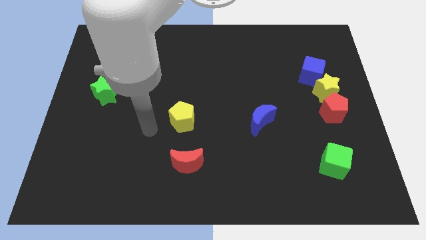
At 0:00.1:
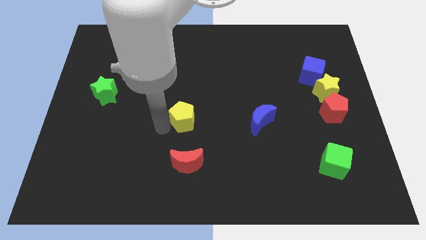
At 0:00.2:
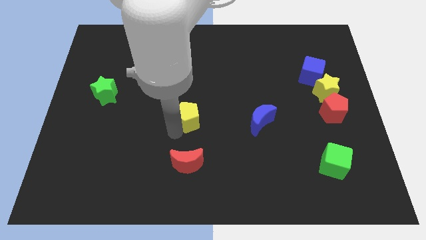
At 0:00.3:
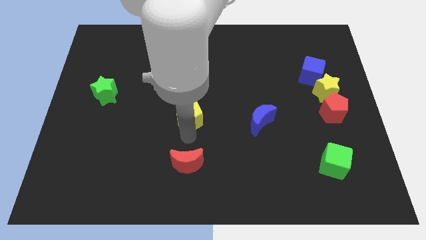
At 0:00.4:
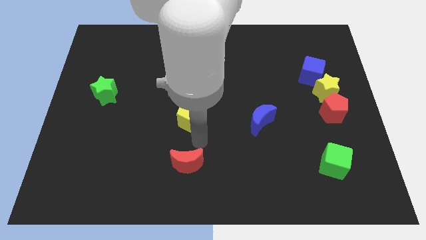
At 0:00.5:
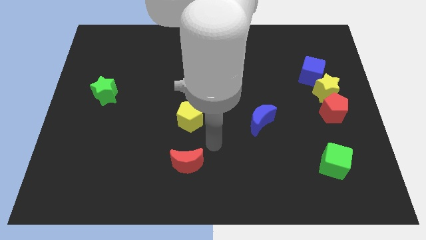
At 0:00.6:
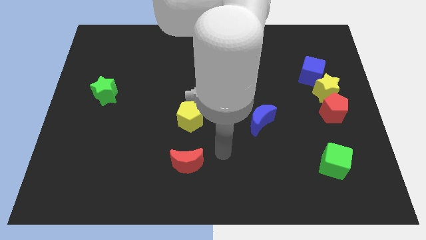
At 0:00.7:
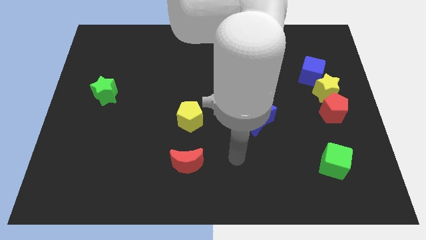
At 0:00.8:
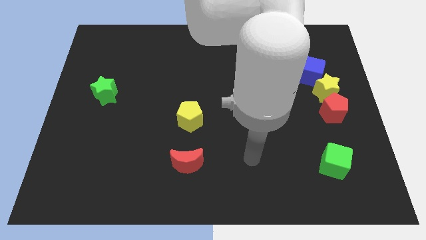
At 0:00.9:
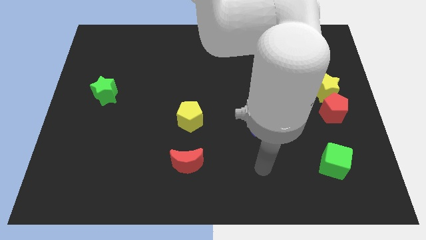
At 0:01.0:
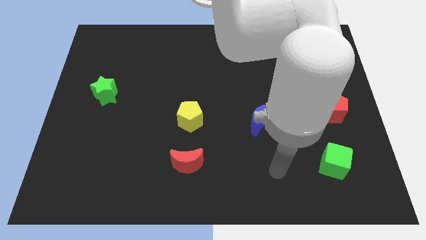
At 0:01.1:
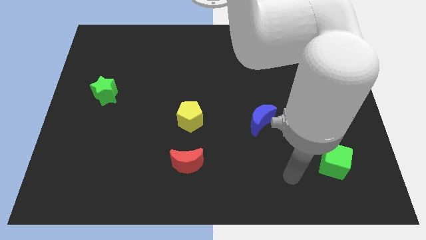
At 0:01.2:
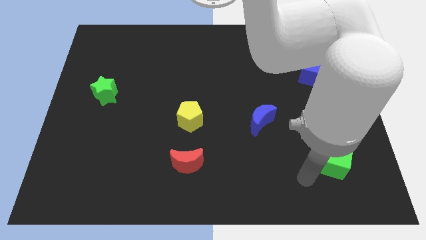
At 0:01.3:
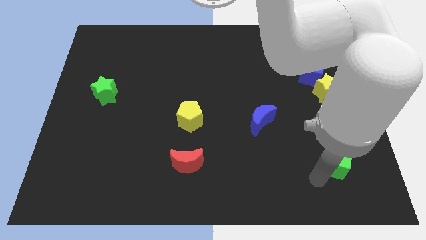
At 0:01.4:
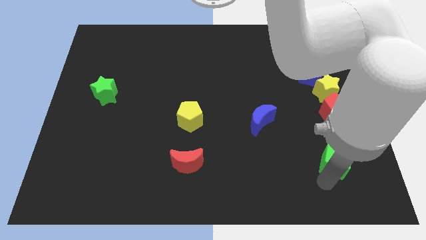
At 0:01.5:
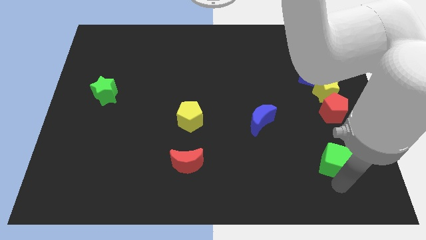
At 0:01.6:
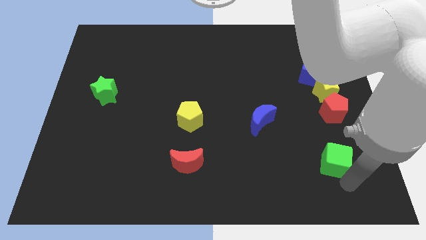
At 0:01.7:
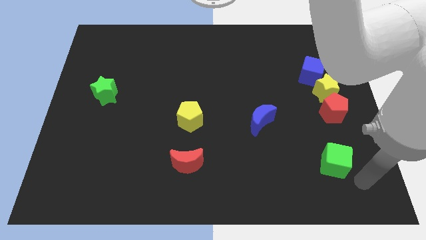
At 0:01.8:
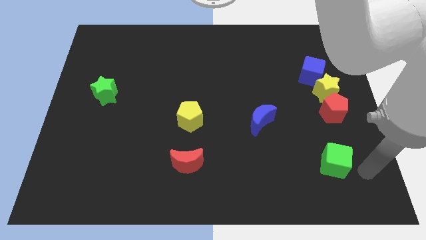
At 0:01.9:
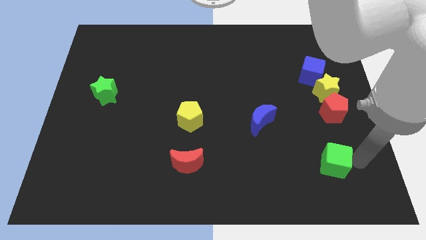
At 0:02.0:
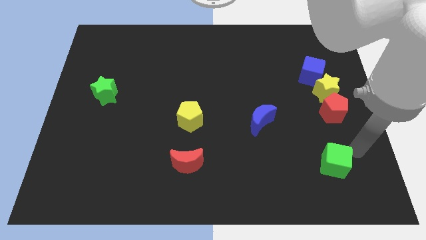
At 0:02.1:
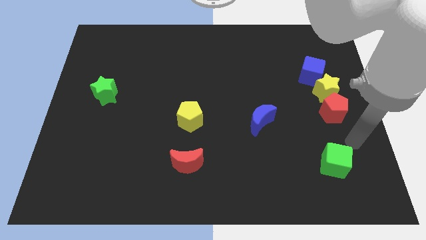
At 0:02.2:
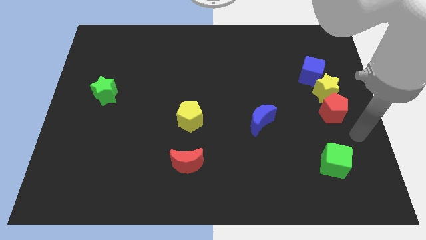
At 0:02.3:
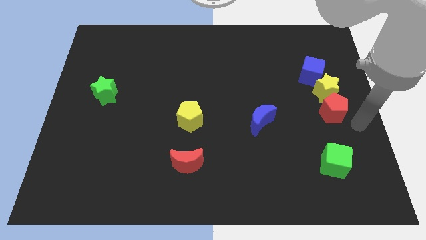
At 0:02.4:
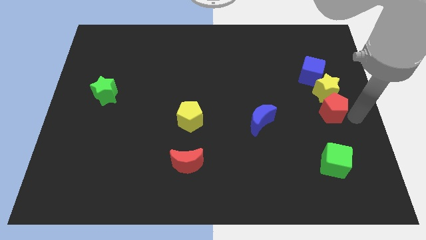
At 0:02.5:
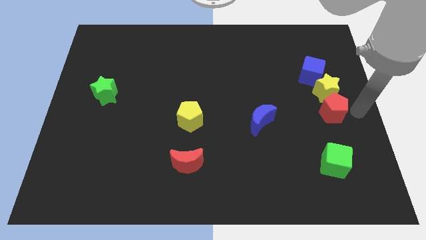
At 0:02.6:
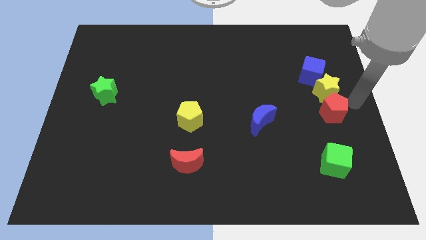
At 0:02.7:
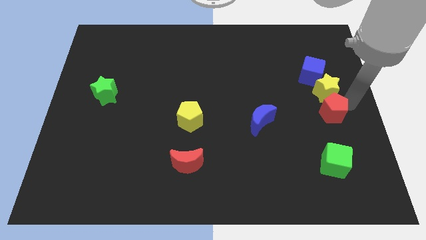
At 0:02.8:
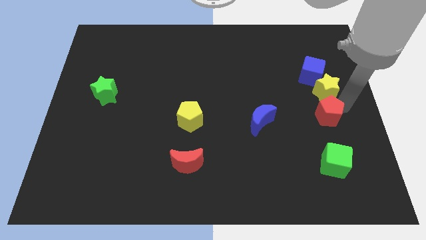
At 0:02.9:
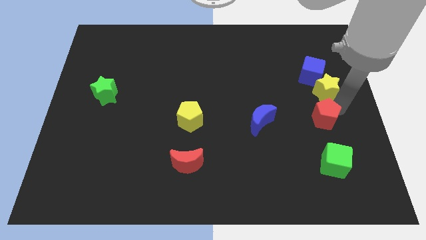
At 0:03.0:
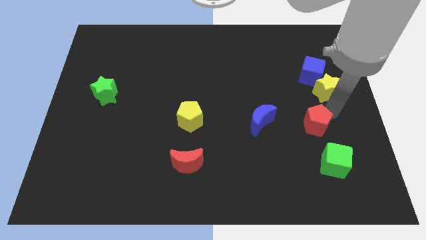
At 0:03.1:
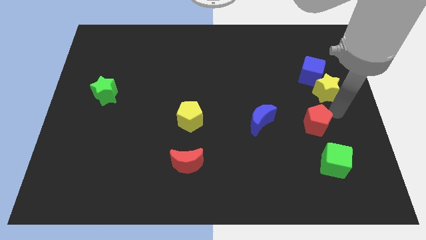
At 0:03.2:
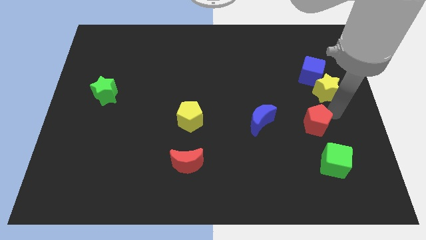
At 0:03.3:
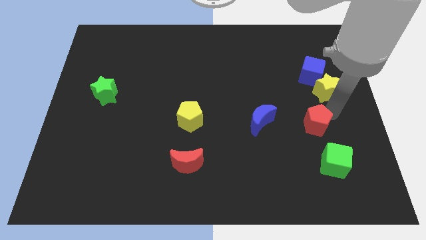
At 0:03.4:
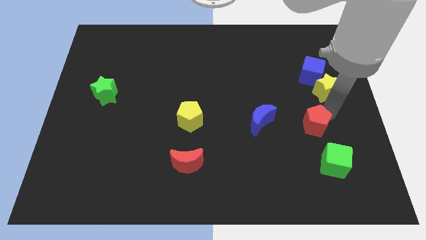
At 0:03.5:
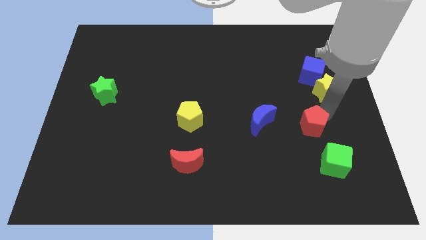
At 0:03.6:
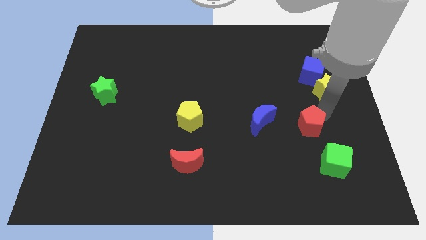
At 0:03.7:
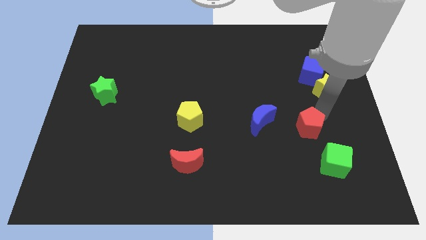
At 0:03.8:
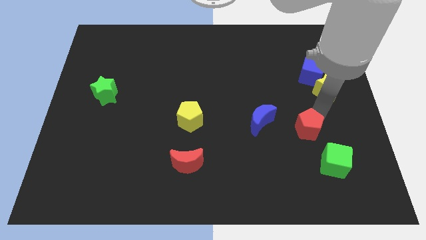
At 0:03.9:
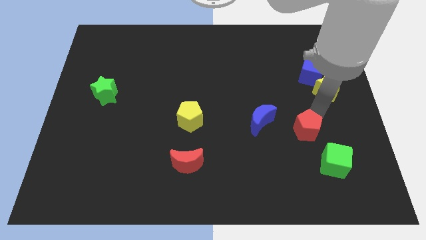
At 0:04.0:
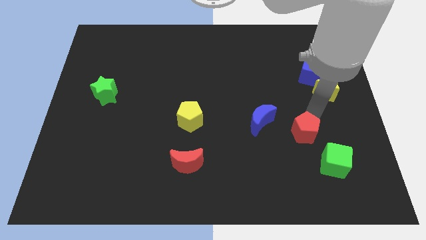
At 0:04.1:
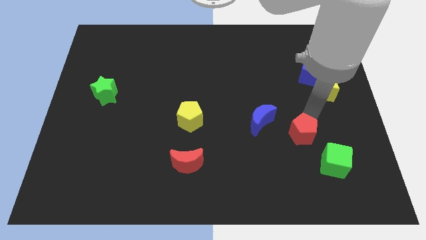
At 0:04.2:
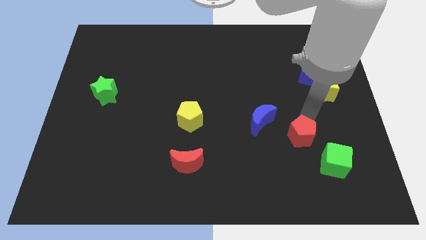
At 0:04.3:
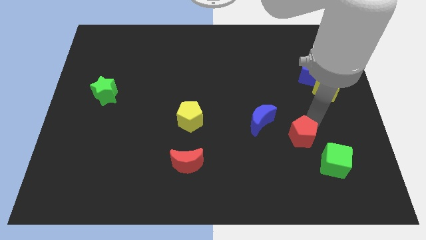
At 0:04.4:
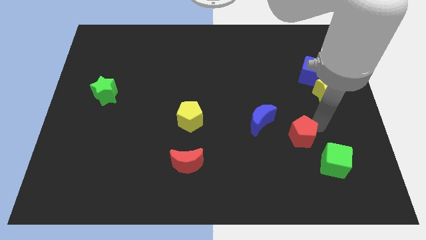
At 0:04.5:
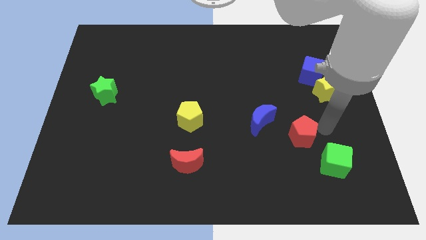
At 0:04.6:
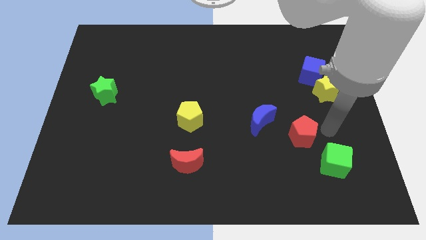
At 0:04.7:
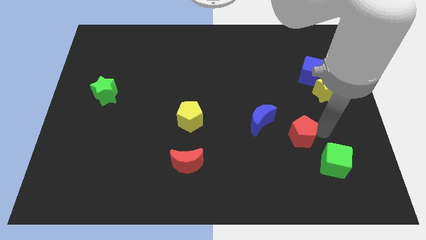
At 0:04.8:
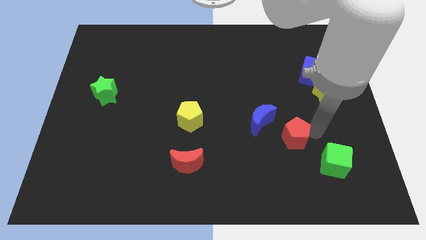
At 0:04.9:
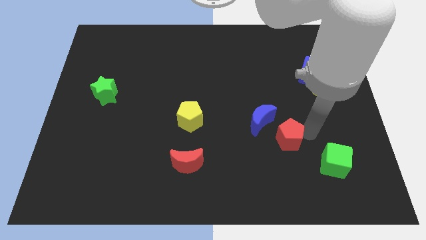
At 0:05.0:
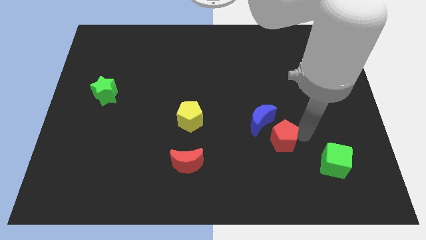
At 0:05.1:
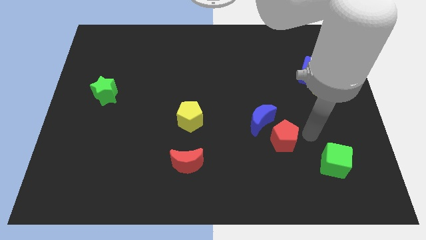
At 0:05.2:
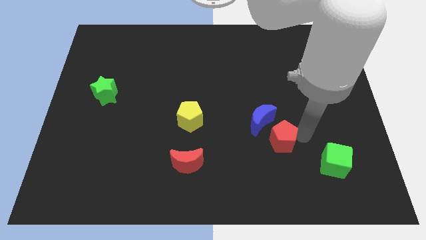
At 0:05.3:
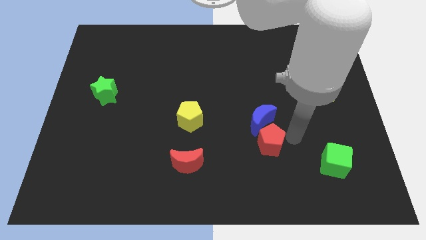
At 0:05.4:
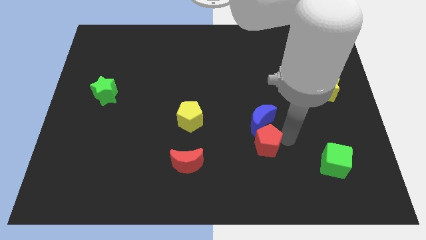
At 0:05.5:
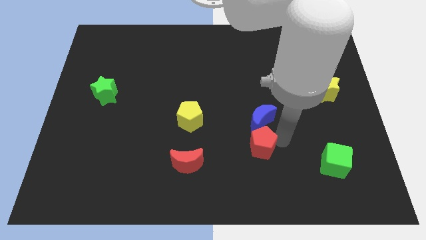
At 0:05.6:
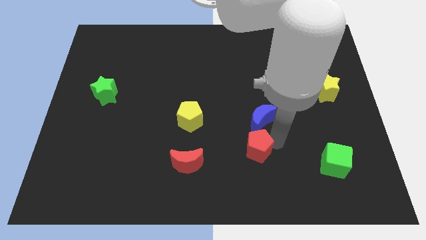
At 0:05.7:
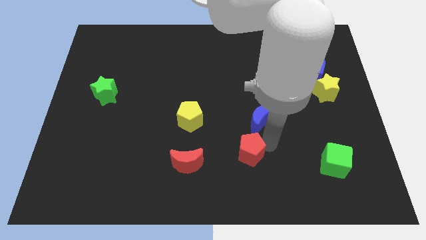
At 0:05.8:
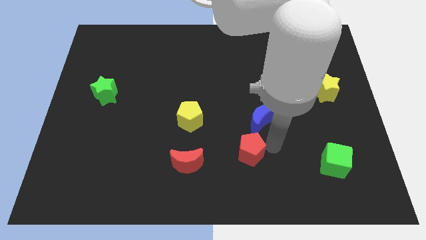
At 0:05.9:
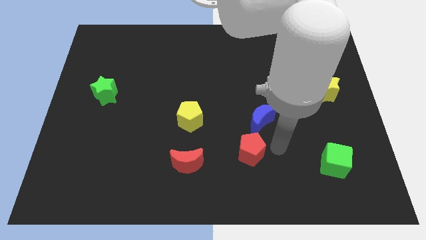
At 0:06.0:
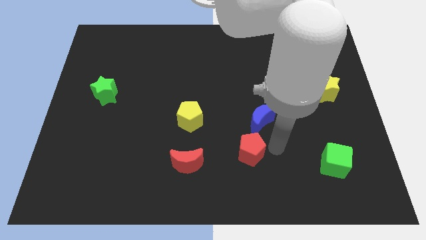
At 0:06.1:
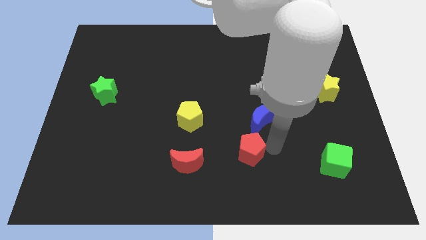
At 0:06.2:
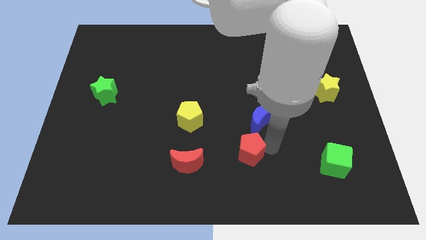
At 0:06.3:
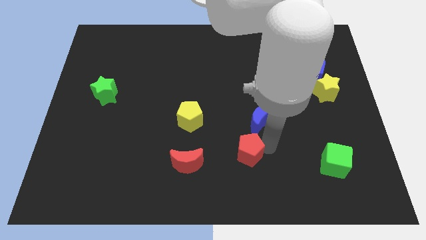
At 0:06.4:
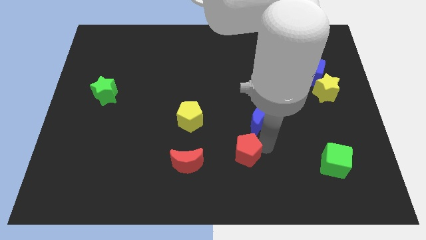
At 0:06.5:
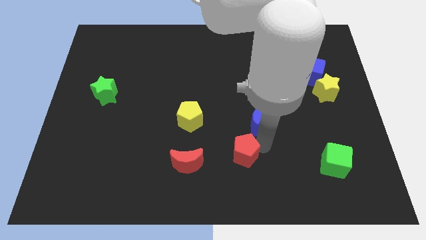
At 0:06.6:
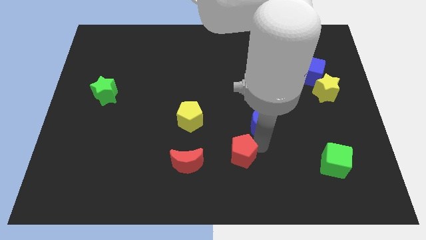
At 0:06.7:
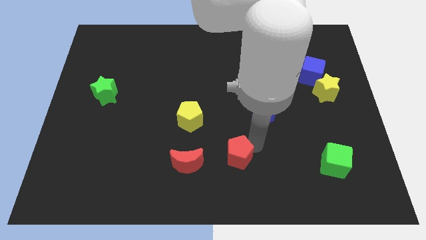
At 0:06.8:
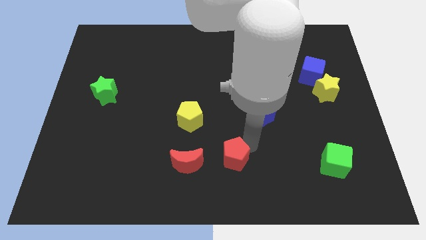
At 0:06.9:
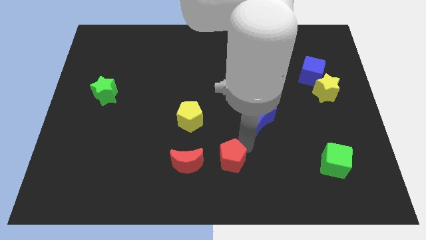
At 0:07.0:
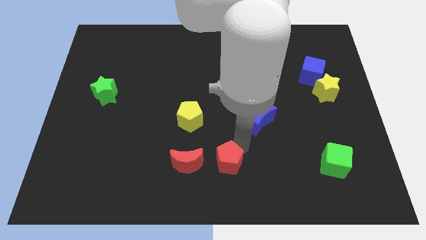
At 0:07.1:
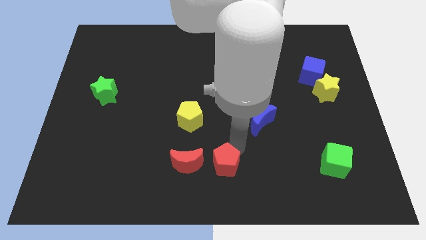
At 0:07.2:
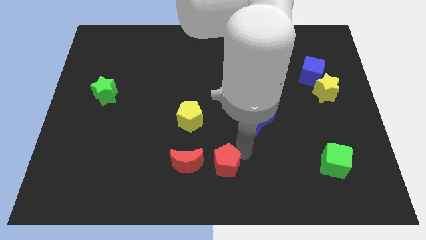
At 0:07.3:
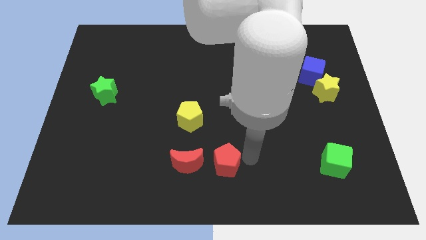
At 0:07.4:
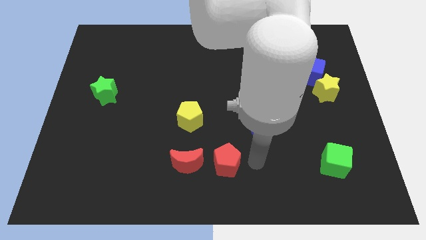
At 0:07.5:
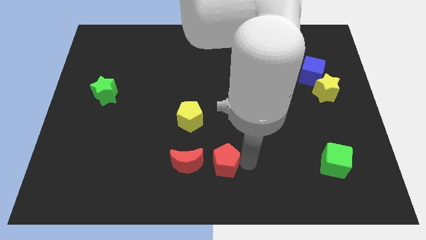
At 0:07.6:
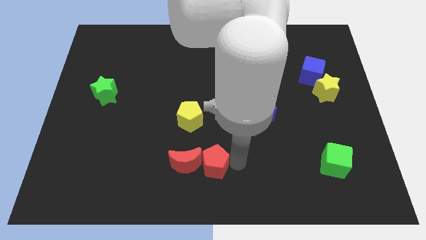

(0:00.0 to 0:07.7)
push the red pentagon next to the red moon
